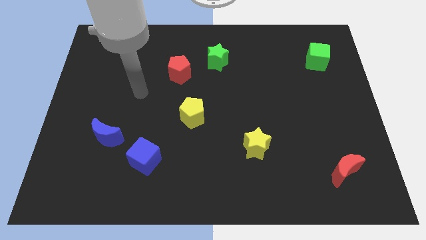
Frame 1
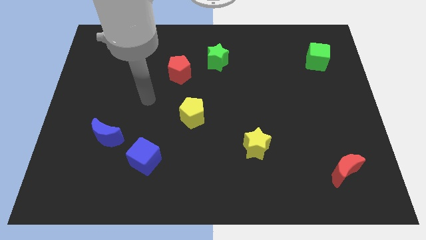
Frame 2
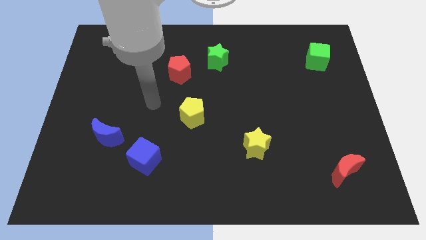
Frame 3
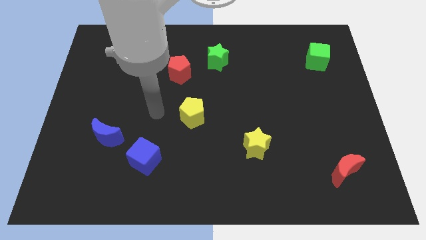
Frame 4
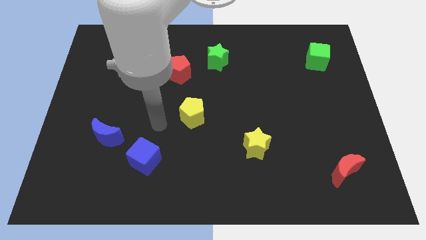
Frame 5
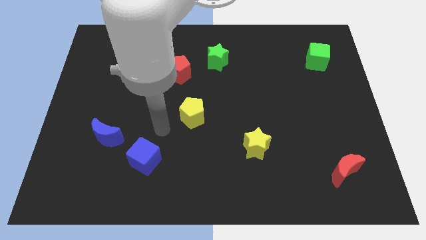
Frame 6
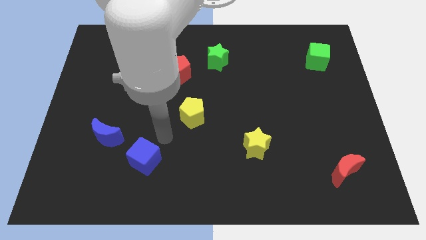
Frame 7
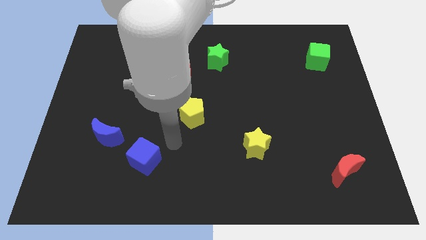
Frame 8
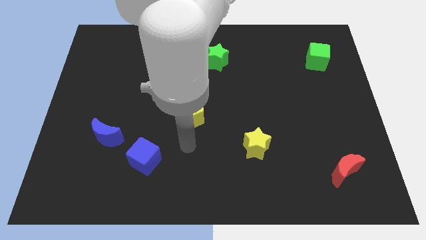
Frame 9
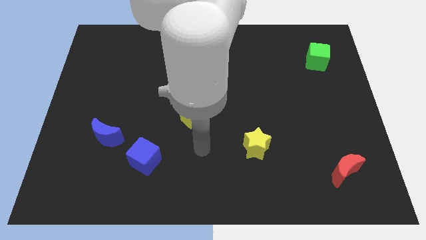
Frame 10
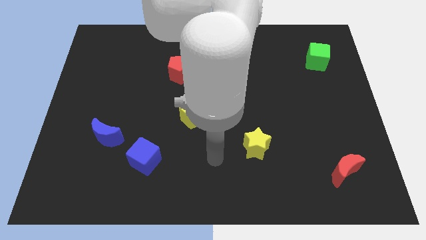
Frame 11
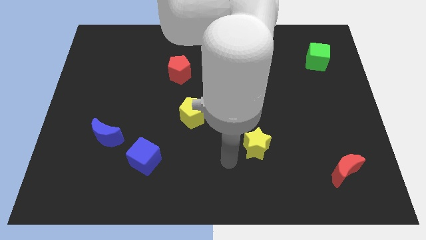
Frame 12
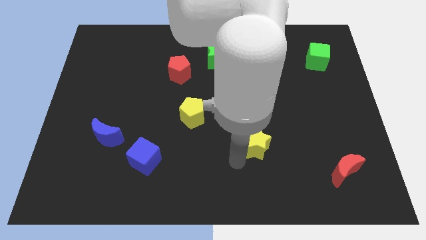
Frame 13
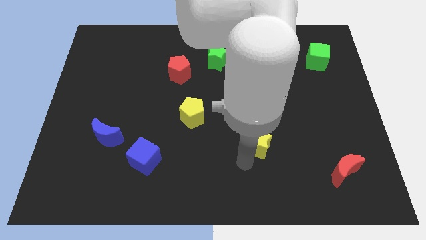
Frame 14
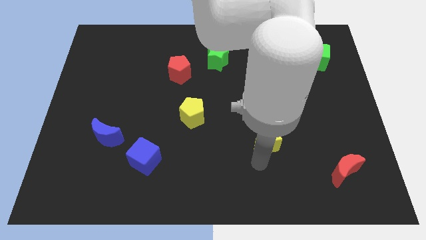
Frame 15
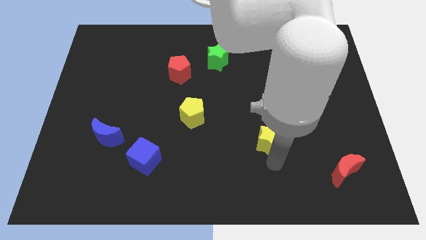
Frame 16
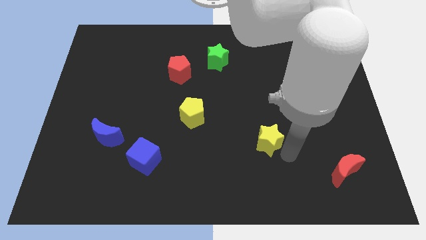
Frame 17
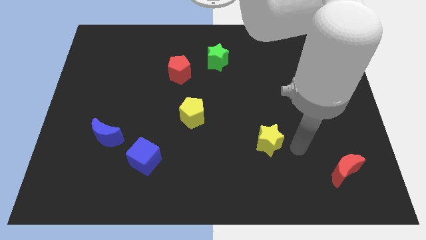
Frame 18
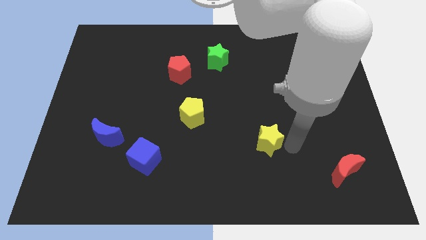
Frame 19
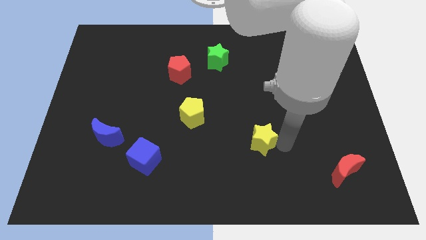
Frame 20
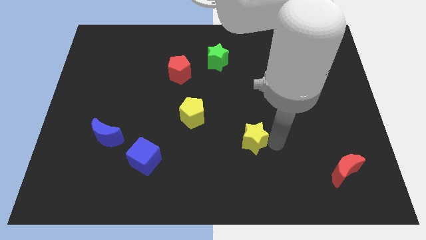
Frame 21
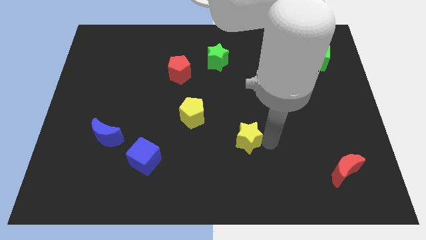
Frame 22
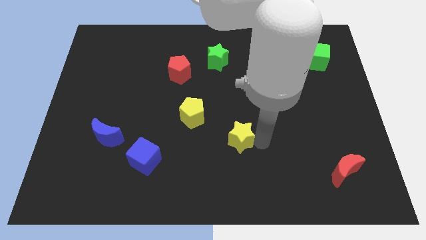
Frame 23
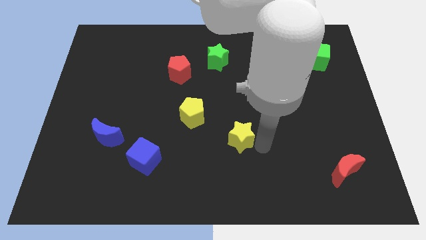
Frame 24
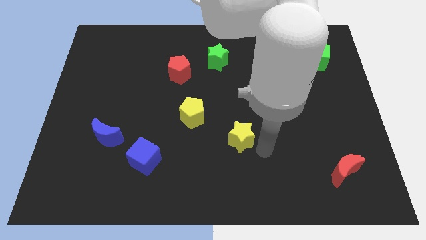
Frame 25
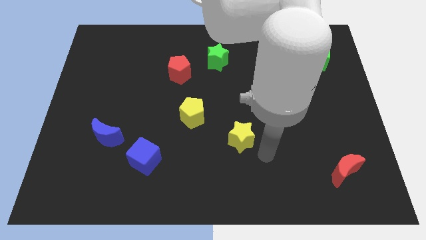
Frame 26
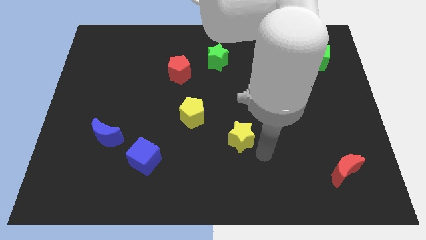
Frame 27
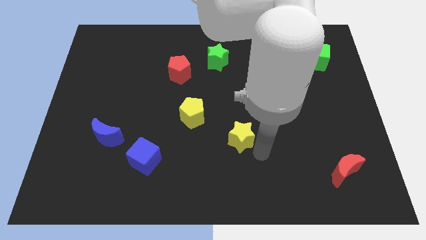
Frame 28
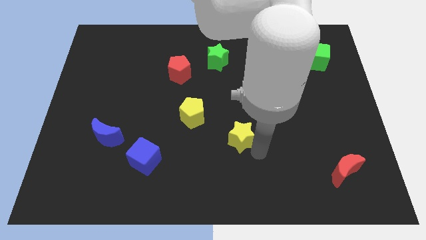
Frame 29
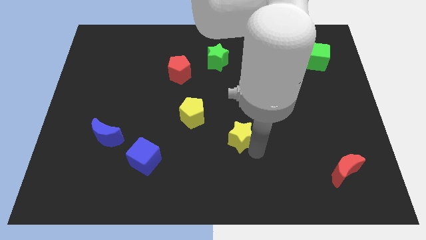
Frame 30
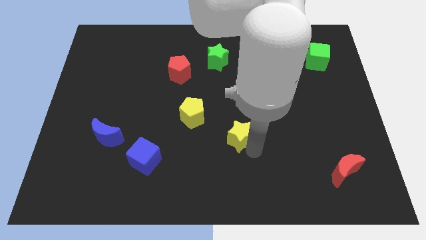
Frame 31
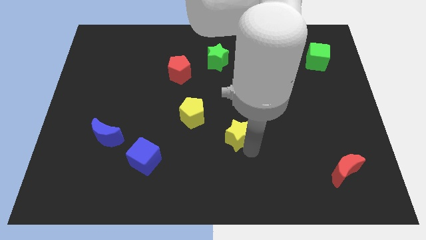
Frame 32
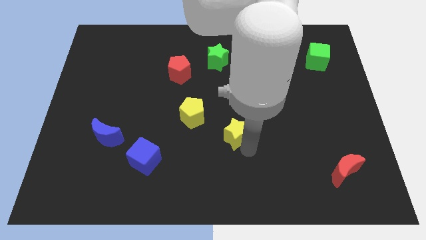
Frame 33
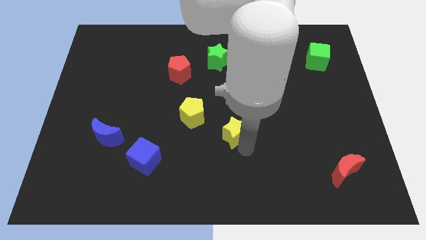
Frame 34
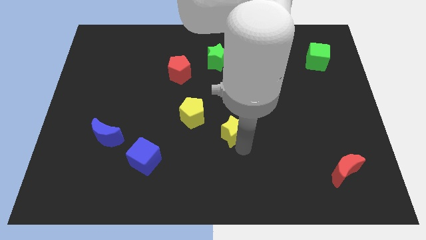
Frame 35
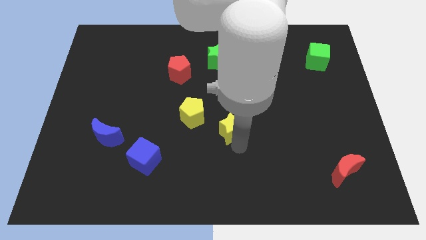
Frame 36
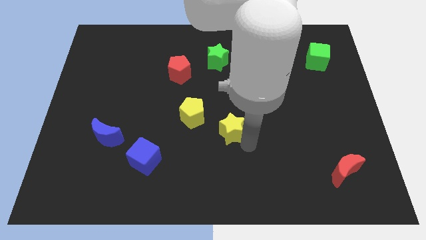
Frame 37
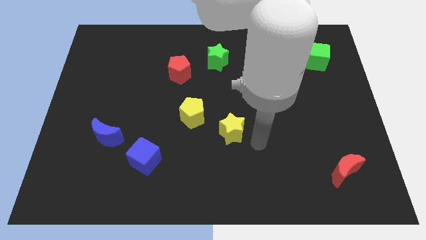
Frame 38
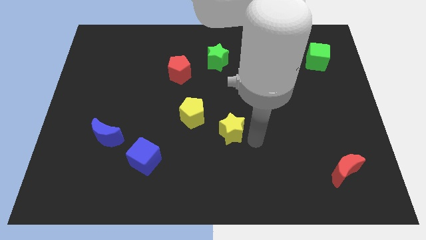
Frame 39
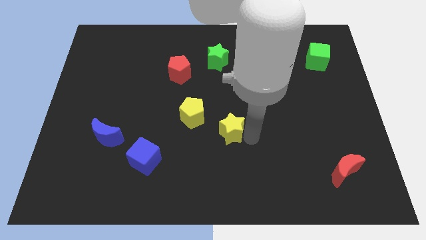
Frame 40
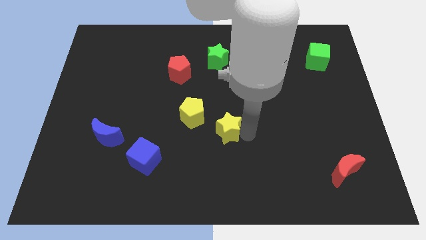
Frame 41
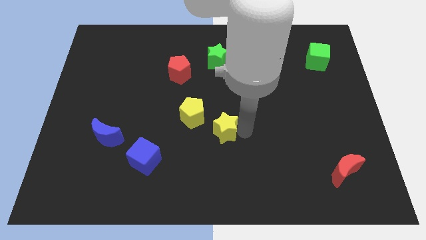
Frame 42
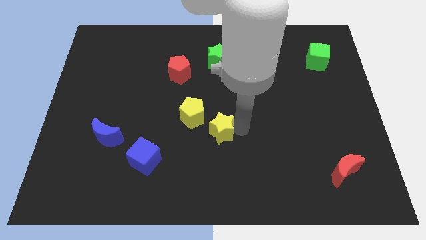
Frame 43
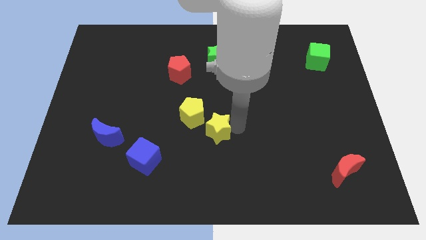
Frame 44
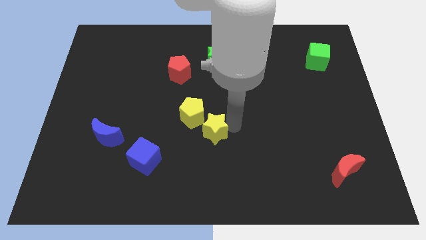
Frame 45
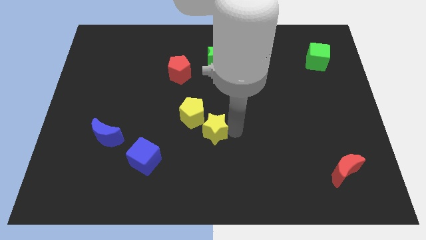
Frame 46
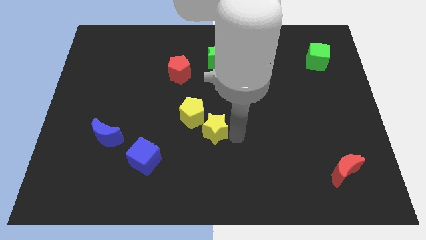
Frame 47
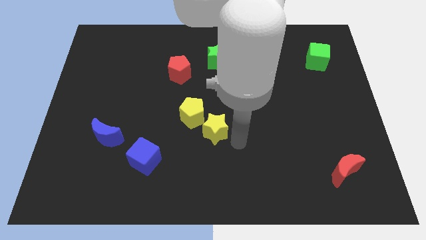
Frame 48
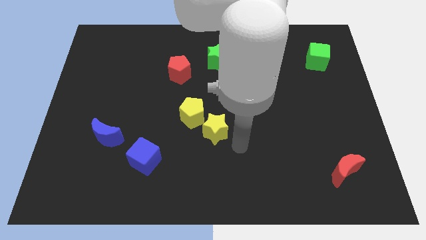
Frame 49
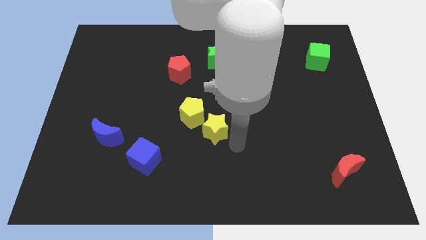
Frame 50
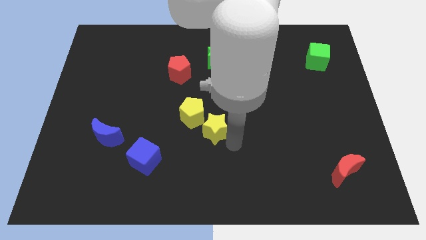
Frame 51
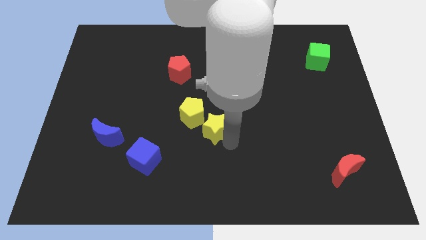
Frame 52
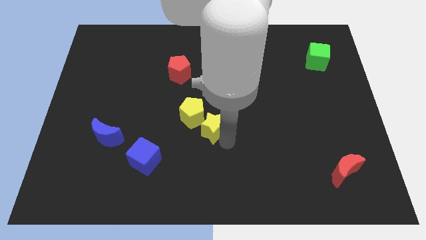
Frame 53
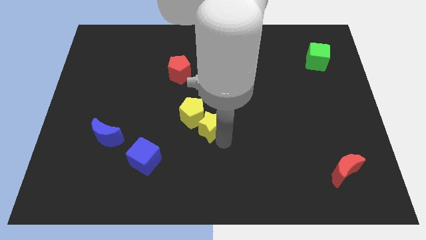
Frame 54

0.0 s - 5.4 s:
slide the yellow star close to the yellow pentagon

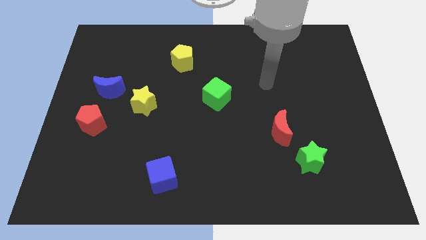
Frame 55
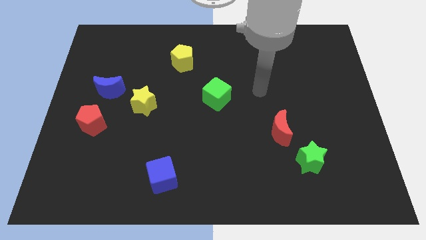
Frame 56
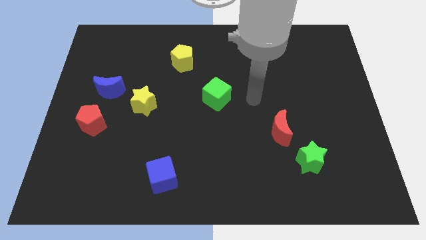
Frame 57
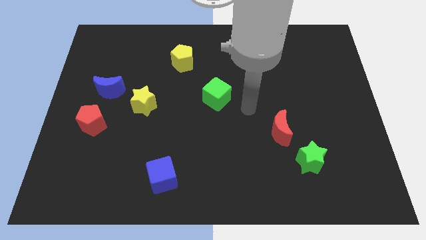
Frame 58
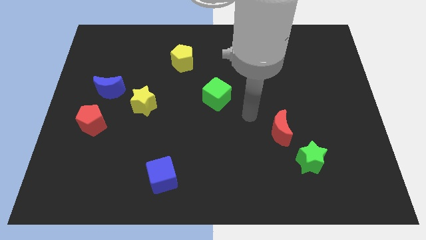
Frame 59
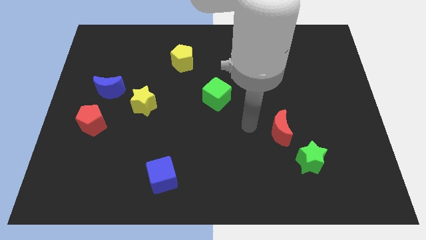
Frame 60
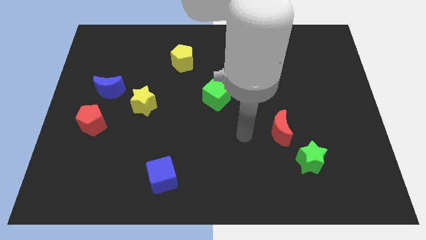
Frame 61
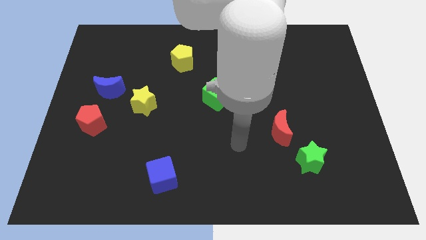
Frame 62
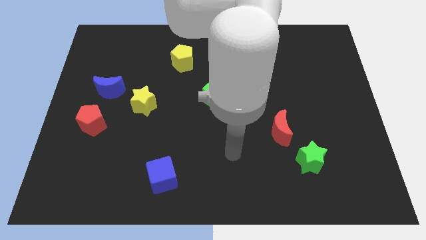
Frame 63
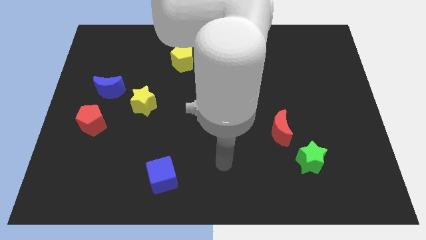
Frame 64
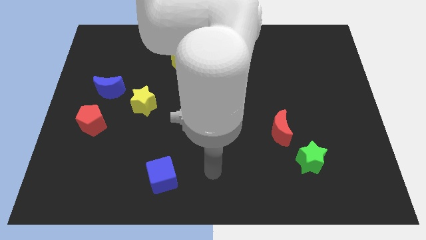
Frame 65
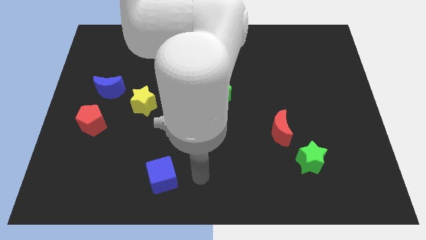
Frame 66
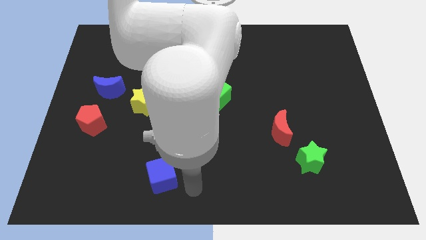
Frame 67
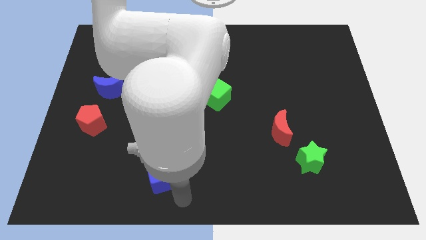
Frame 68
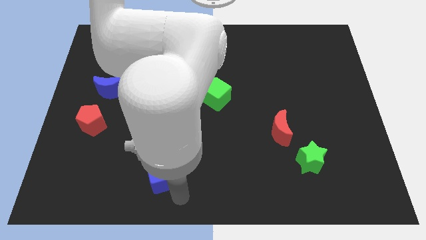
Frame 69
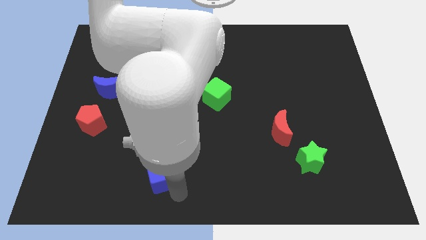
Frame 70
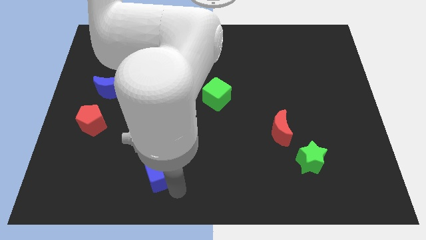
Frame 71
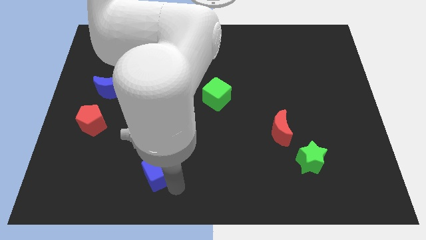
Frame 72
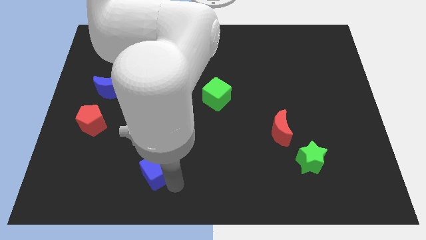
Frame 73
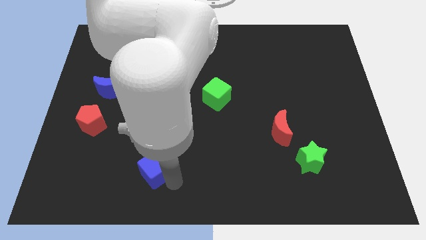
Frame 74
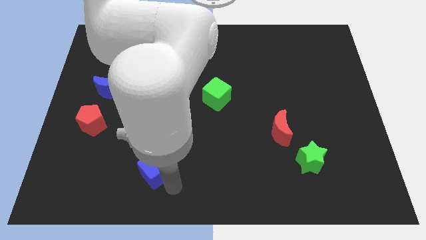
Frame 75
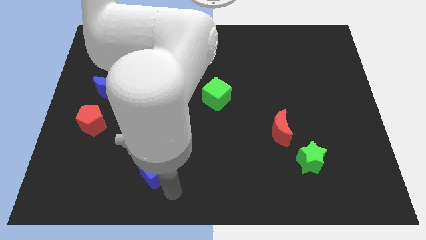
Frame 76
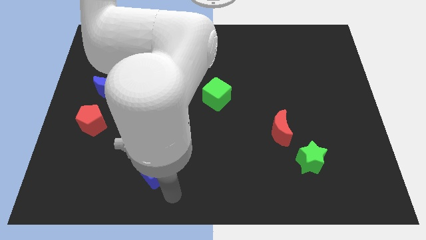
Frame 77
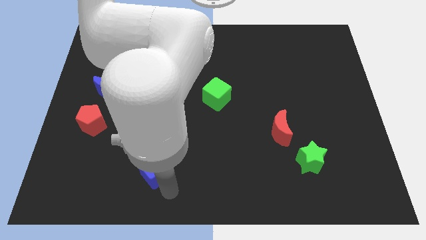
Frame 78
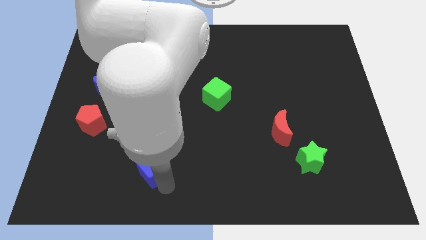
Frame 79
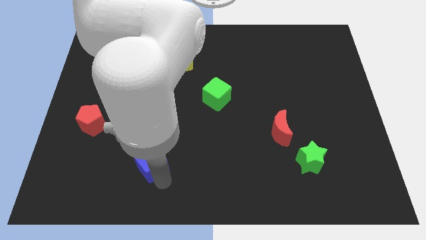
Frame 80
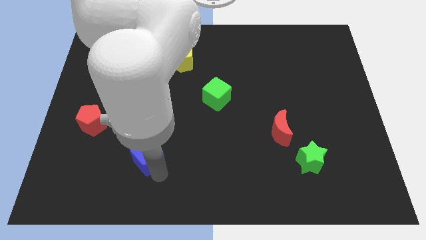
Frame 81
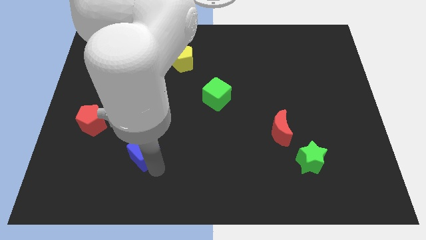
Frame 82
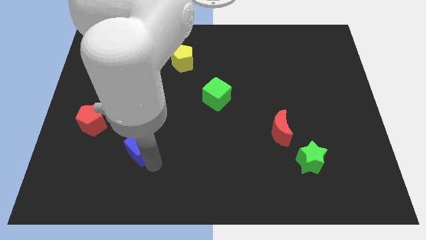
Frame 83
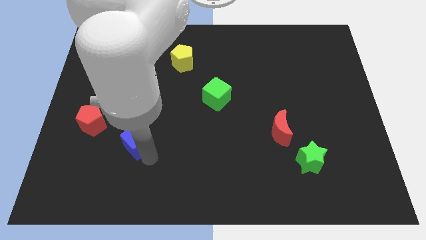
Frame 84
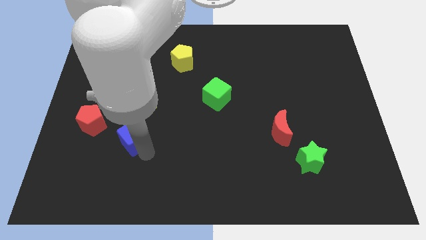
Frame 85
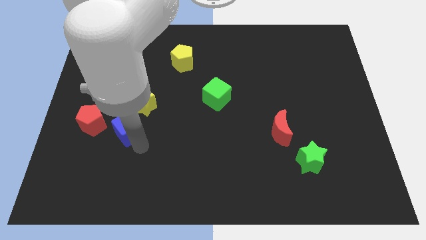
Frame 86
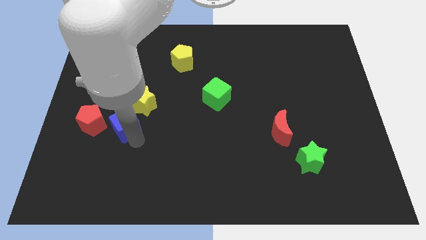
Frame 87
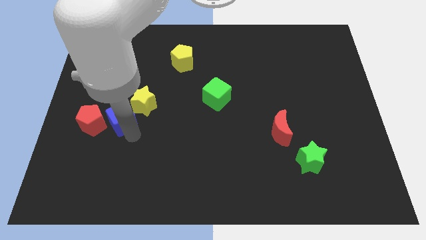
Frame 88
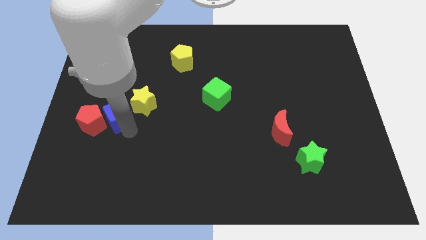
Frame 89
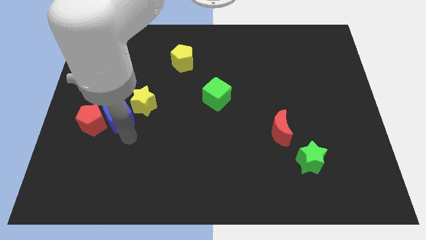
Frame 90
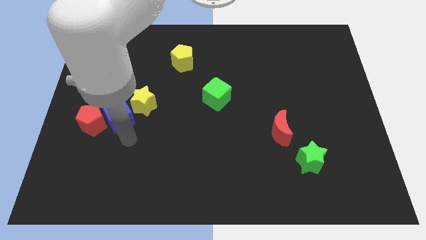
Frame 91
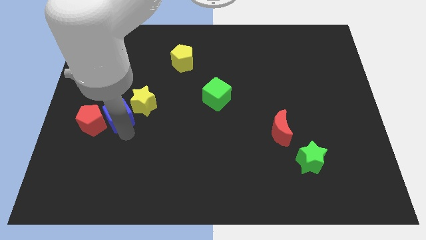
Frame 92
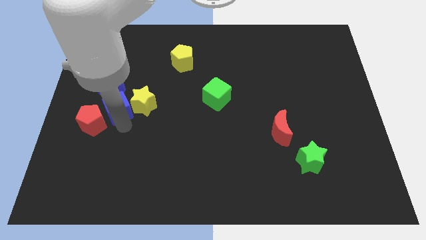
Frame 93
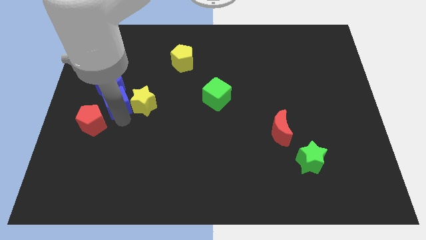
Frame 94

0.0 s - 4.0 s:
move the blue cube next to the blue moon
